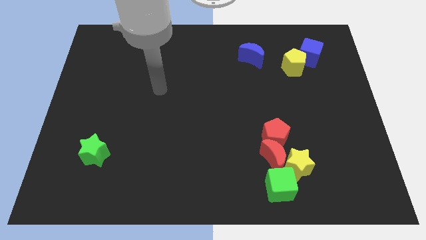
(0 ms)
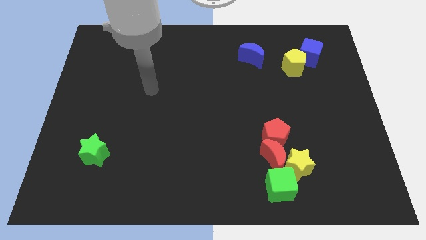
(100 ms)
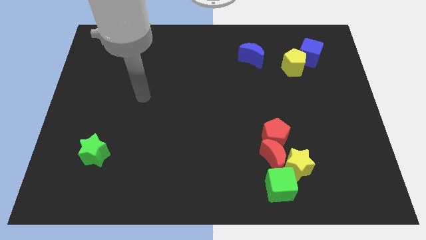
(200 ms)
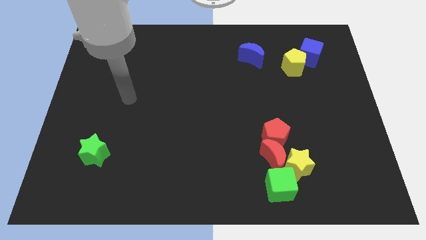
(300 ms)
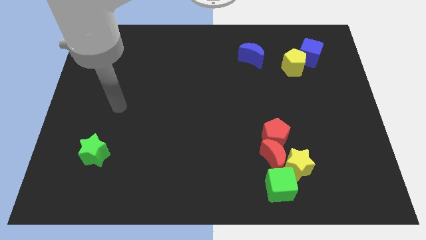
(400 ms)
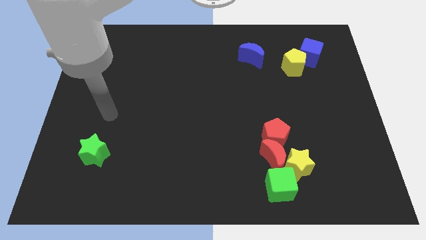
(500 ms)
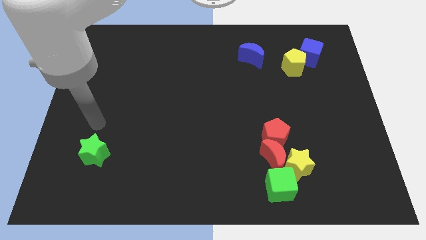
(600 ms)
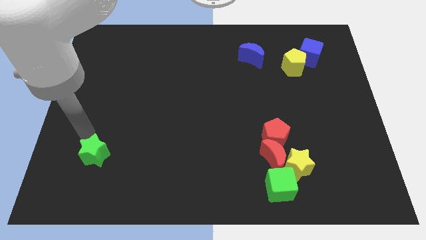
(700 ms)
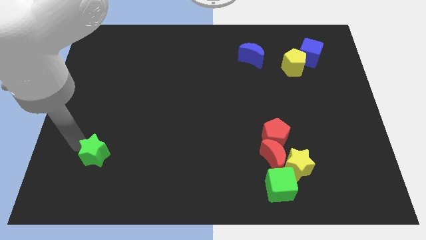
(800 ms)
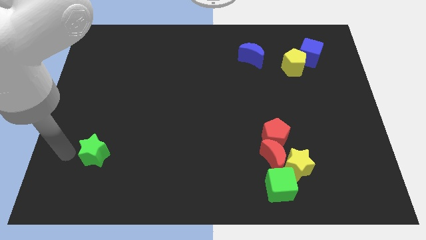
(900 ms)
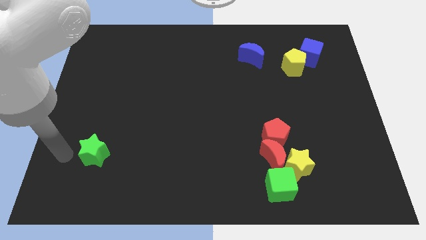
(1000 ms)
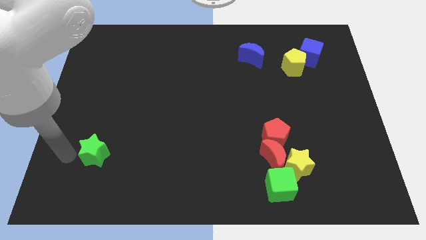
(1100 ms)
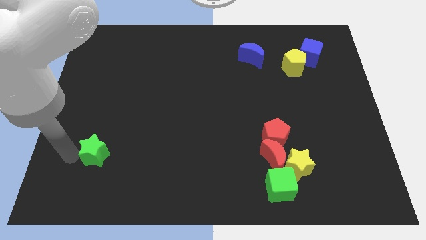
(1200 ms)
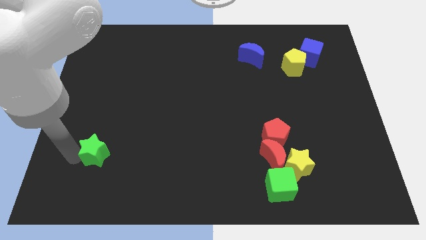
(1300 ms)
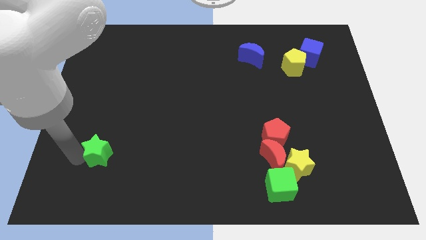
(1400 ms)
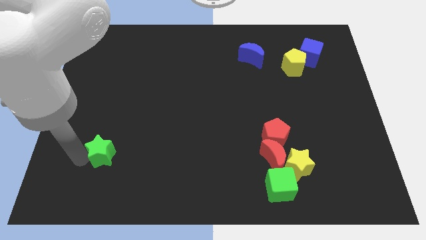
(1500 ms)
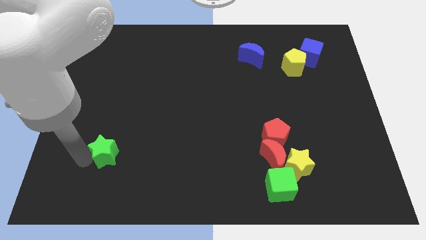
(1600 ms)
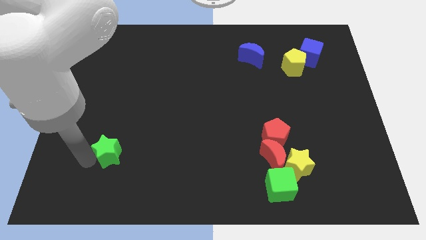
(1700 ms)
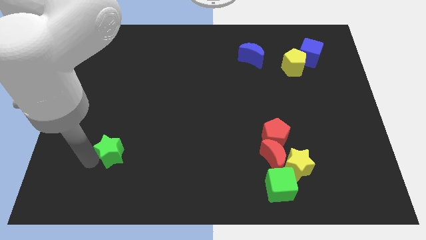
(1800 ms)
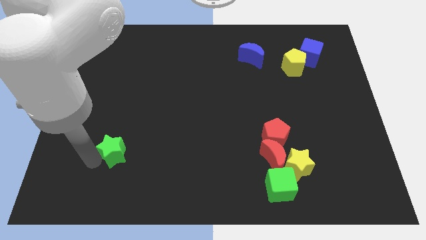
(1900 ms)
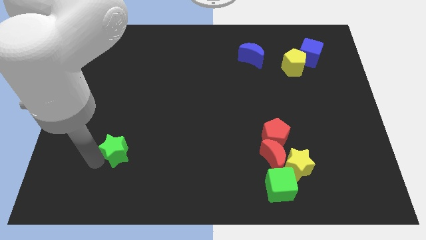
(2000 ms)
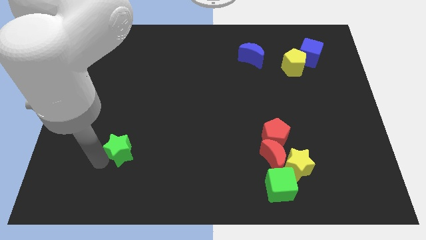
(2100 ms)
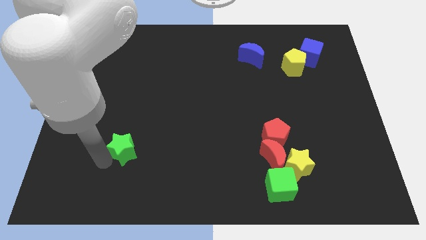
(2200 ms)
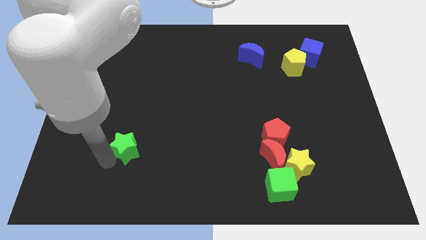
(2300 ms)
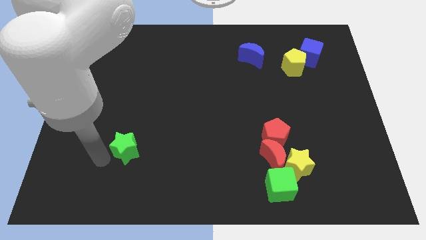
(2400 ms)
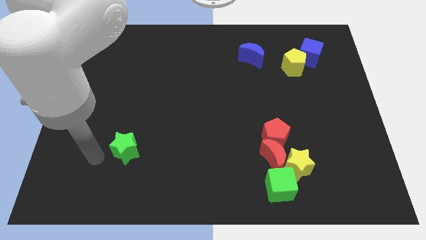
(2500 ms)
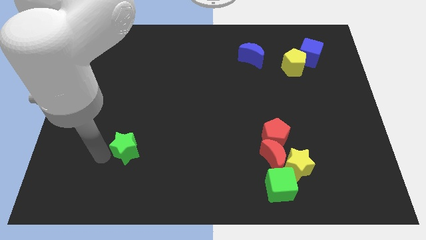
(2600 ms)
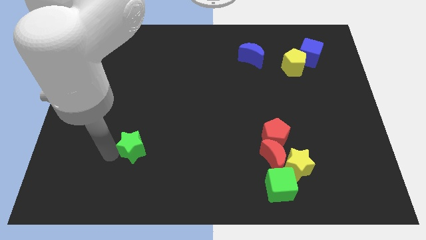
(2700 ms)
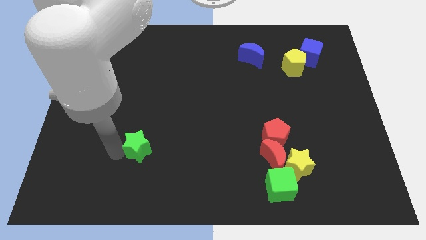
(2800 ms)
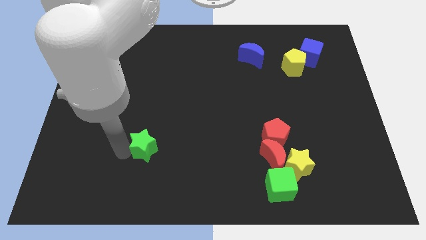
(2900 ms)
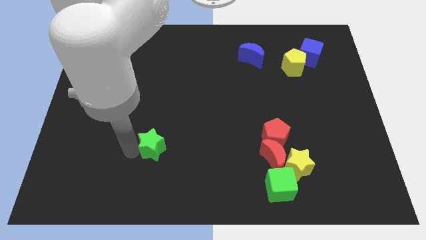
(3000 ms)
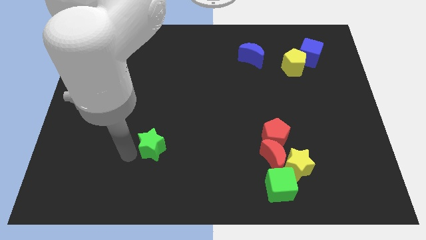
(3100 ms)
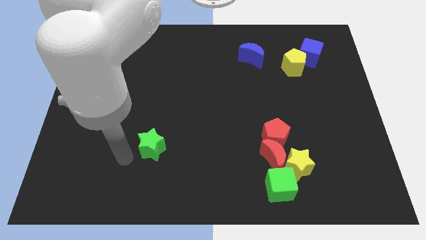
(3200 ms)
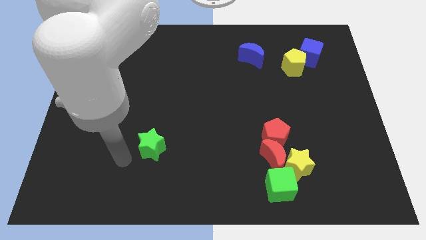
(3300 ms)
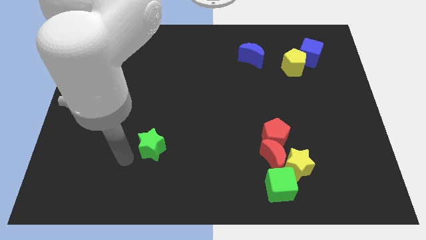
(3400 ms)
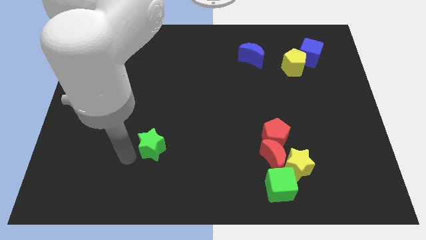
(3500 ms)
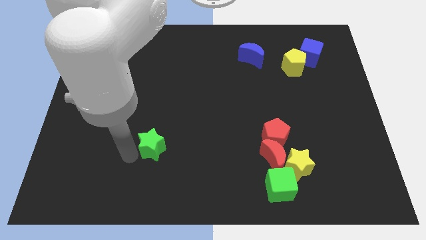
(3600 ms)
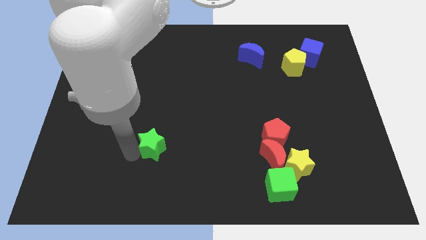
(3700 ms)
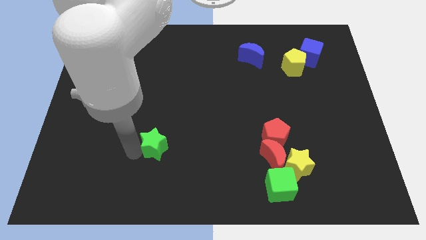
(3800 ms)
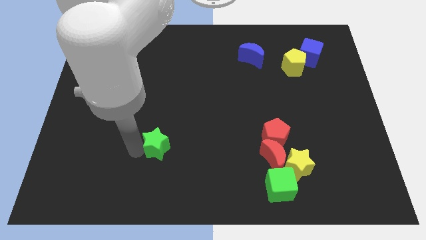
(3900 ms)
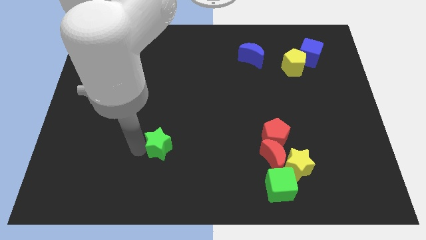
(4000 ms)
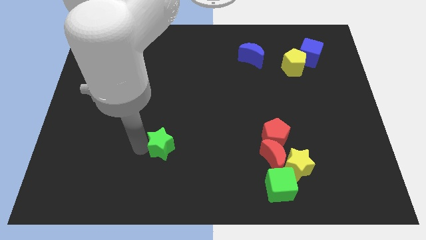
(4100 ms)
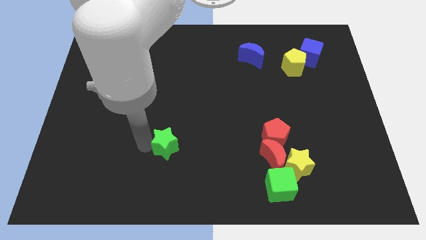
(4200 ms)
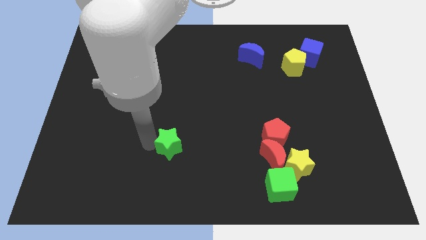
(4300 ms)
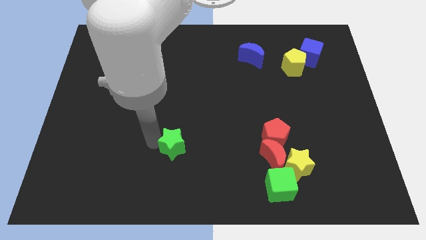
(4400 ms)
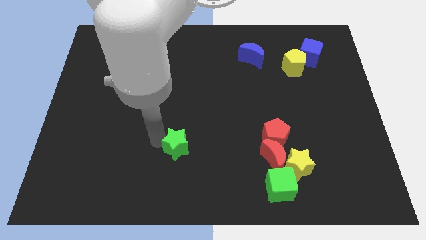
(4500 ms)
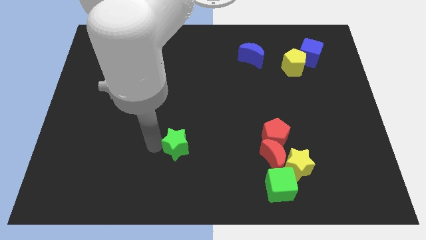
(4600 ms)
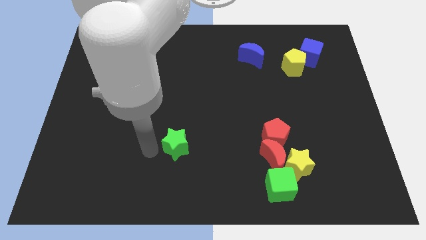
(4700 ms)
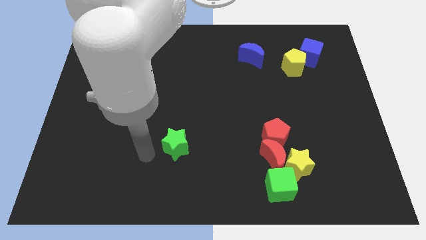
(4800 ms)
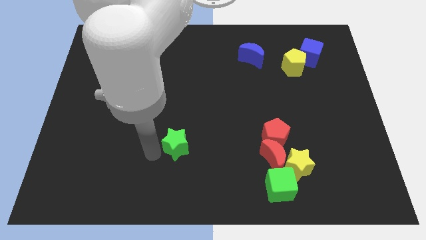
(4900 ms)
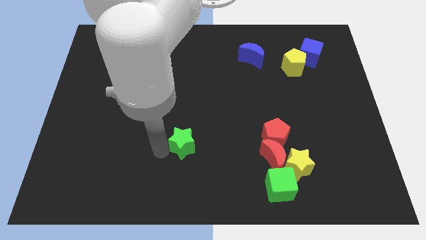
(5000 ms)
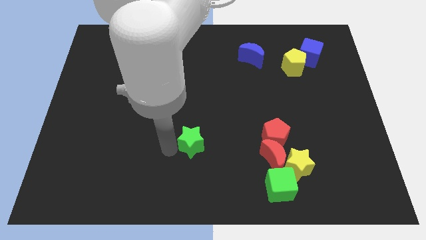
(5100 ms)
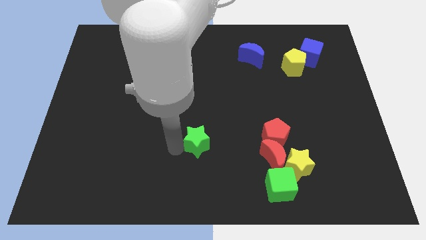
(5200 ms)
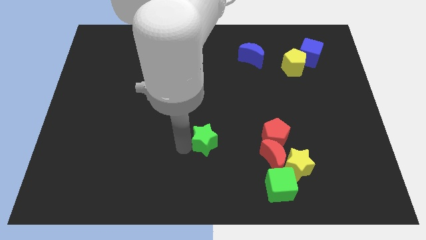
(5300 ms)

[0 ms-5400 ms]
slide the green star just left of the red pentagon

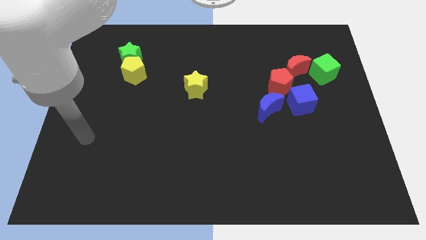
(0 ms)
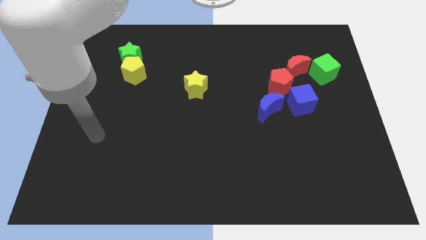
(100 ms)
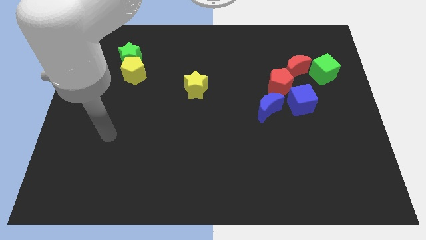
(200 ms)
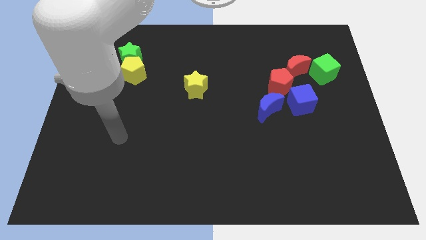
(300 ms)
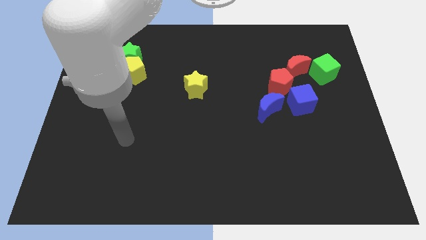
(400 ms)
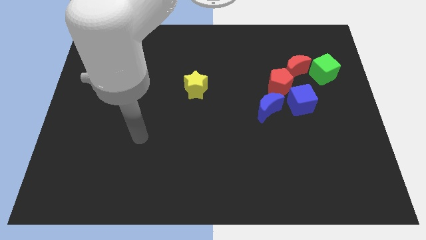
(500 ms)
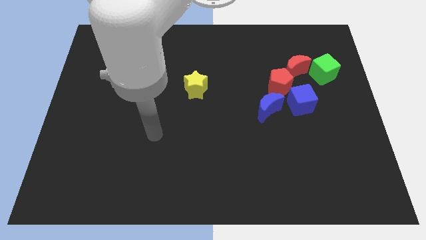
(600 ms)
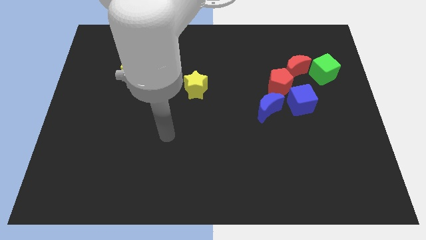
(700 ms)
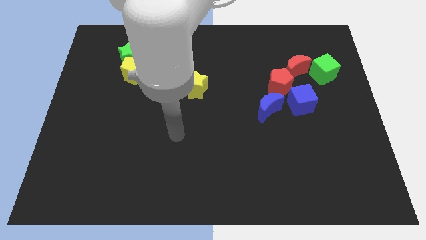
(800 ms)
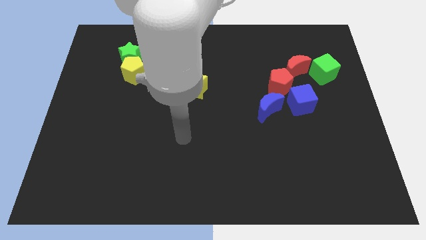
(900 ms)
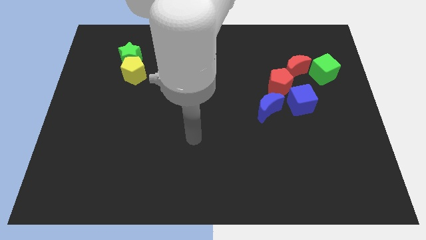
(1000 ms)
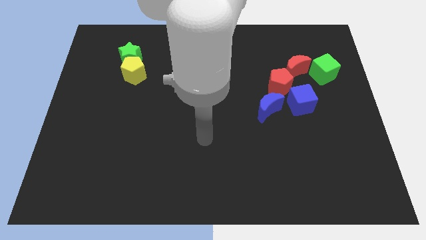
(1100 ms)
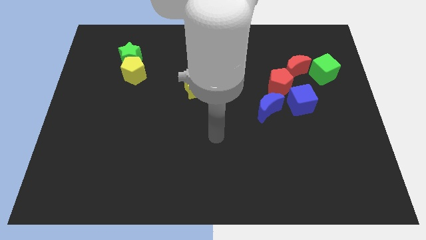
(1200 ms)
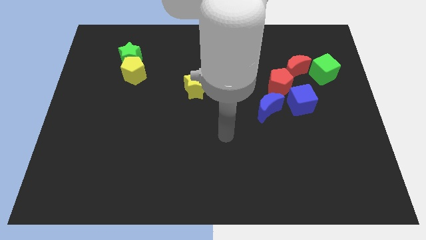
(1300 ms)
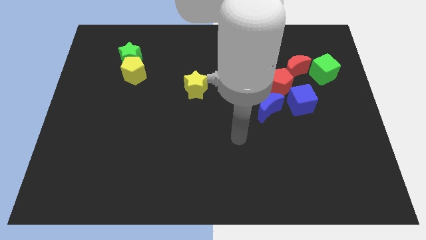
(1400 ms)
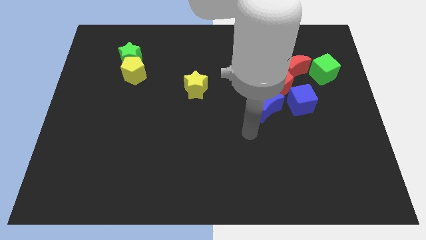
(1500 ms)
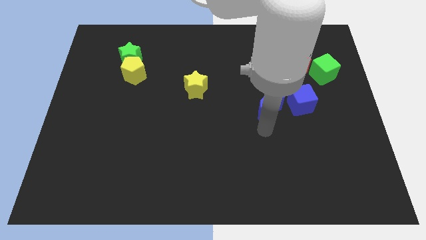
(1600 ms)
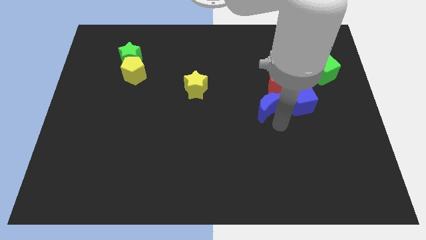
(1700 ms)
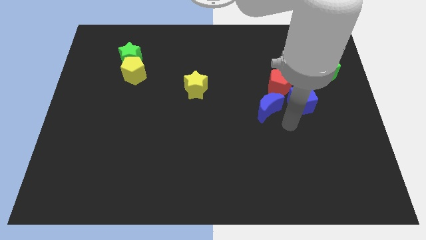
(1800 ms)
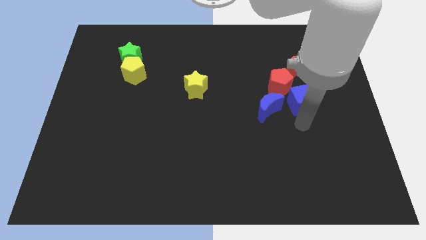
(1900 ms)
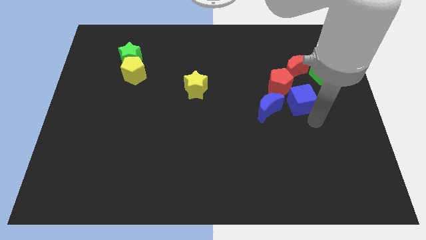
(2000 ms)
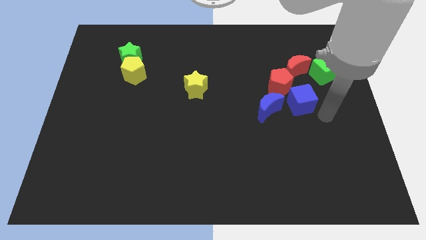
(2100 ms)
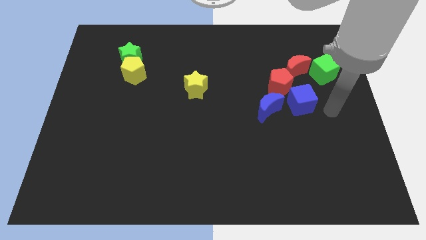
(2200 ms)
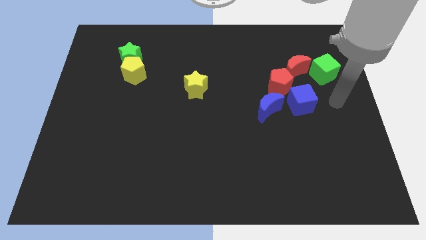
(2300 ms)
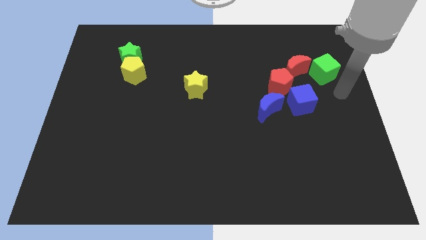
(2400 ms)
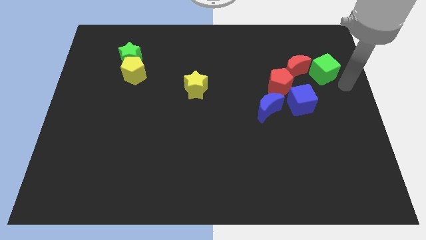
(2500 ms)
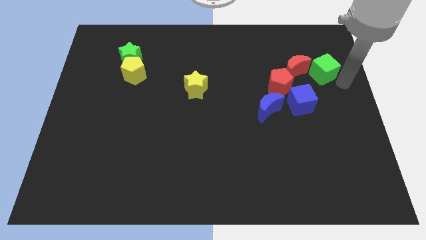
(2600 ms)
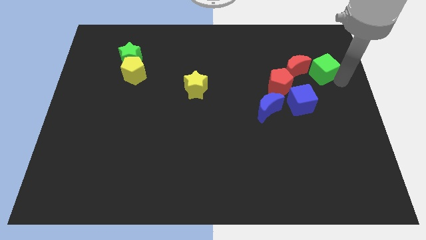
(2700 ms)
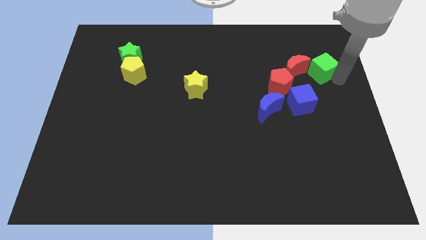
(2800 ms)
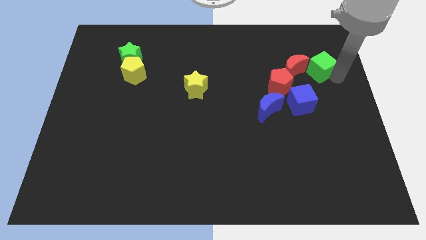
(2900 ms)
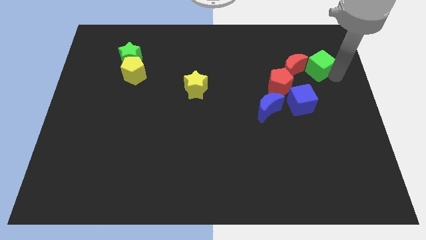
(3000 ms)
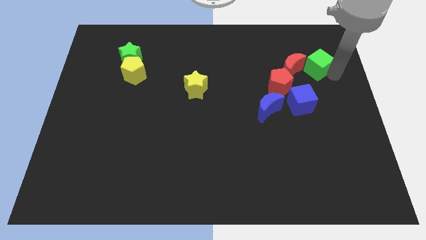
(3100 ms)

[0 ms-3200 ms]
slide the green cube to the top right side of the red pentagon
